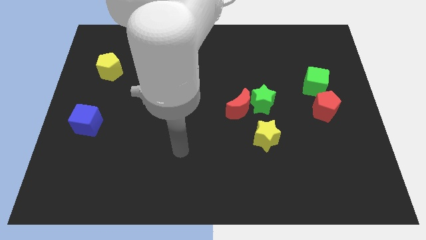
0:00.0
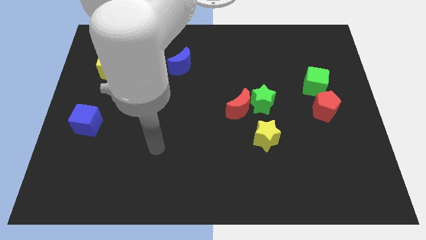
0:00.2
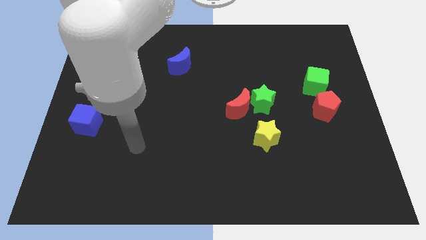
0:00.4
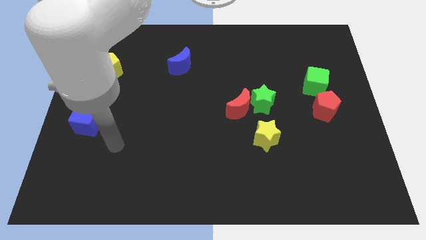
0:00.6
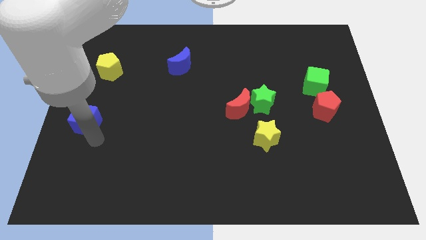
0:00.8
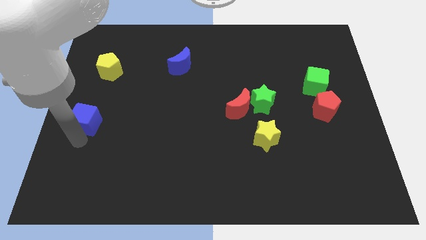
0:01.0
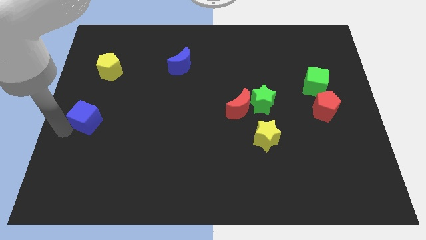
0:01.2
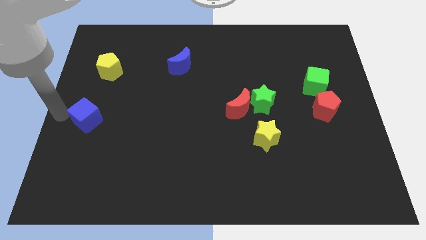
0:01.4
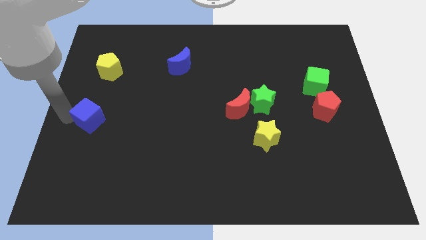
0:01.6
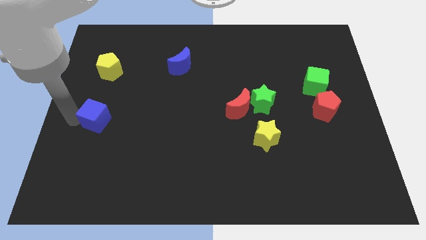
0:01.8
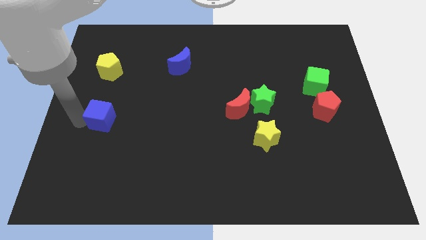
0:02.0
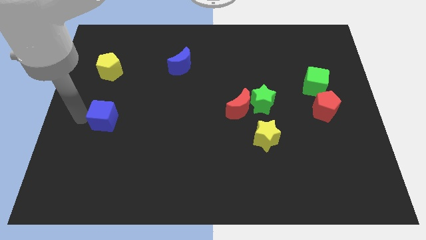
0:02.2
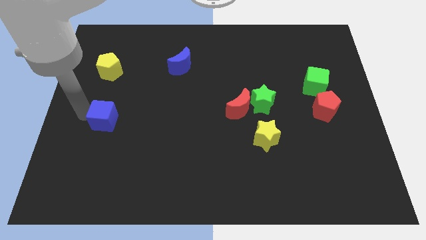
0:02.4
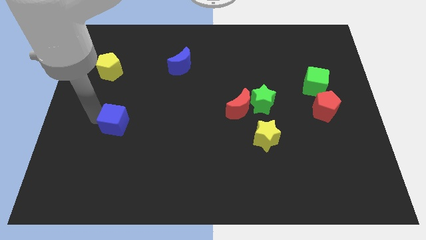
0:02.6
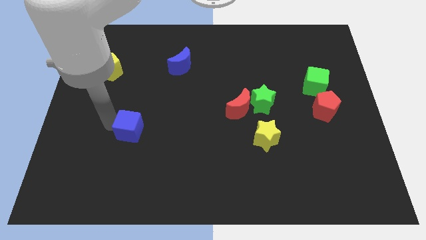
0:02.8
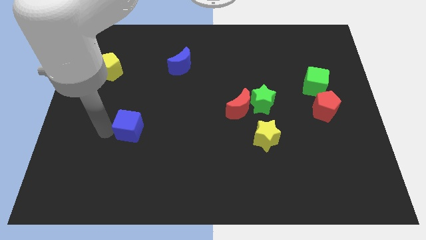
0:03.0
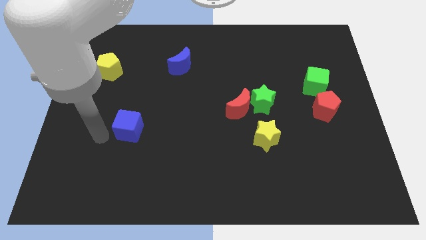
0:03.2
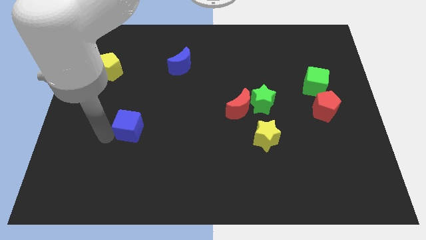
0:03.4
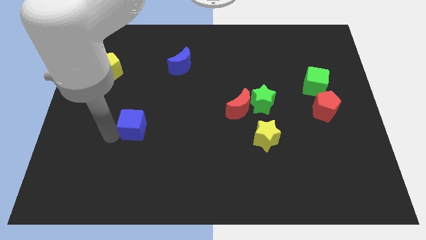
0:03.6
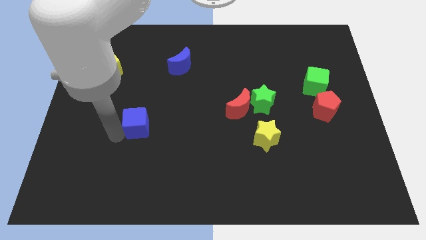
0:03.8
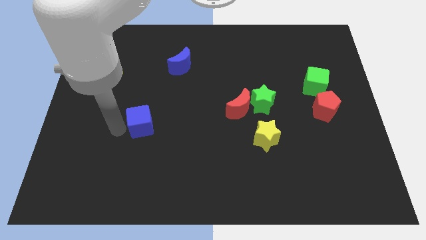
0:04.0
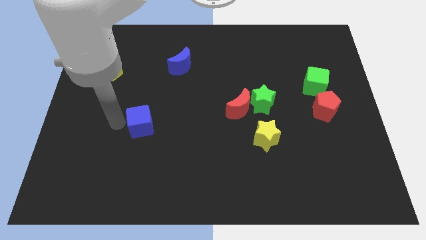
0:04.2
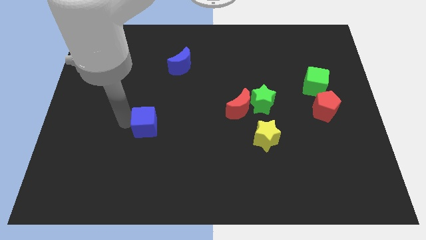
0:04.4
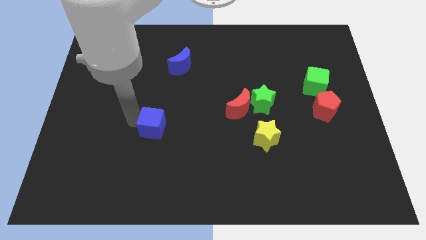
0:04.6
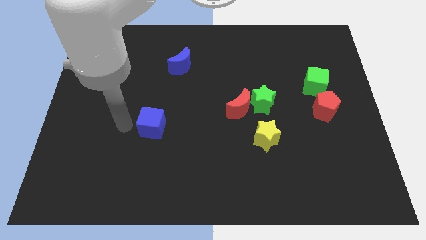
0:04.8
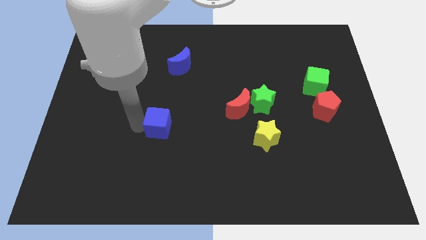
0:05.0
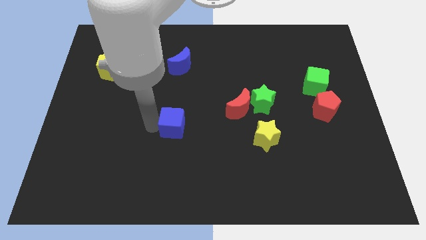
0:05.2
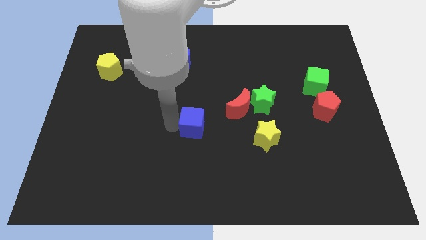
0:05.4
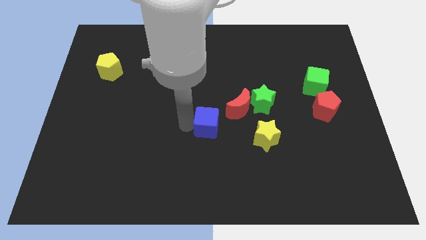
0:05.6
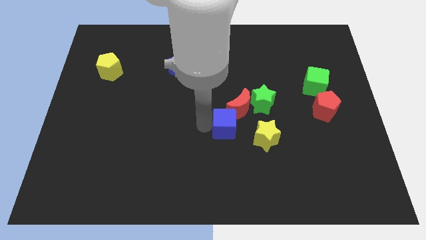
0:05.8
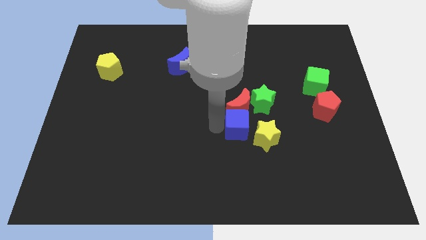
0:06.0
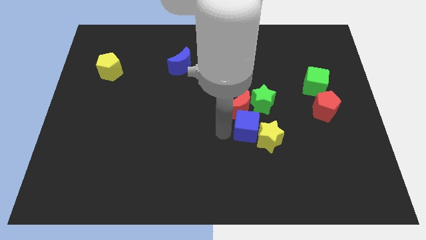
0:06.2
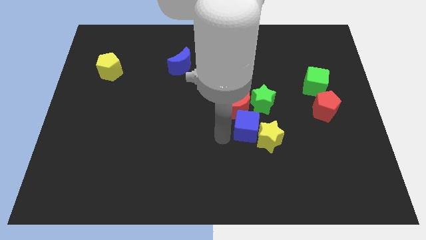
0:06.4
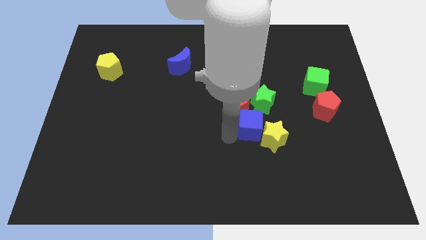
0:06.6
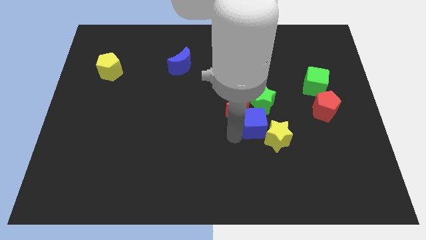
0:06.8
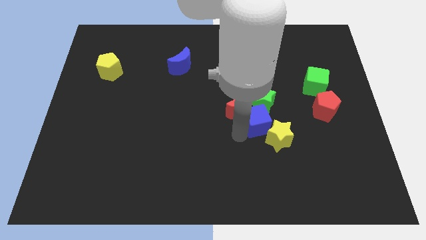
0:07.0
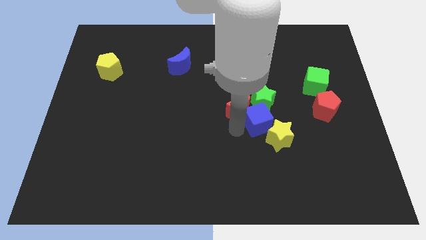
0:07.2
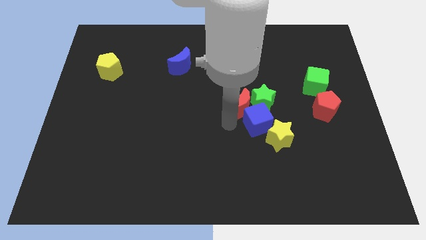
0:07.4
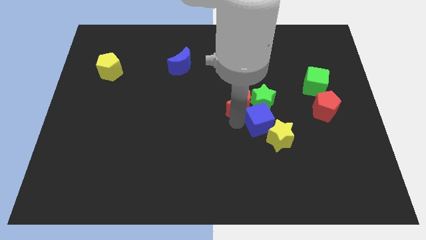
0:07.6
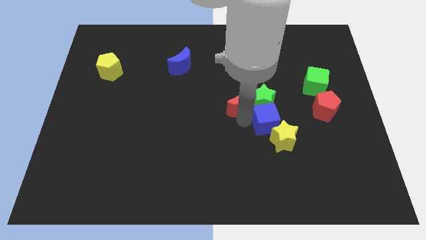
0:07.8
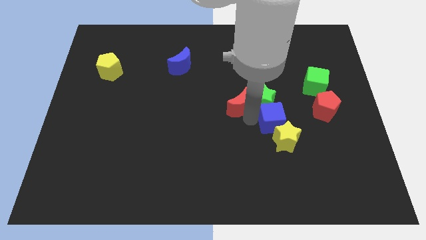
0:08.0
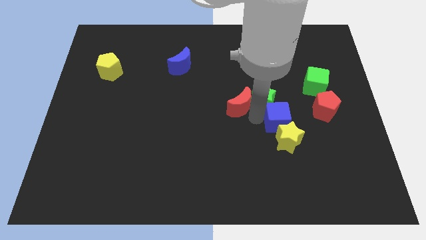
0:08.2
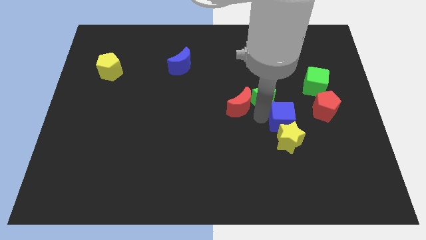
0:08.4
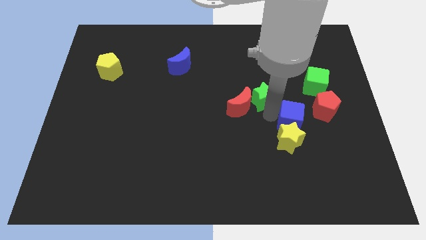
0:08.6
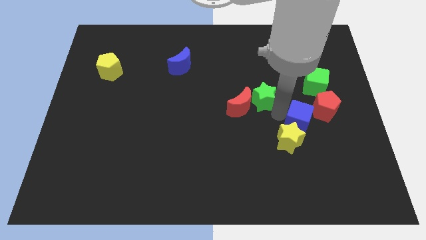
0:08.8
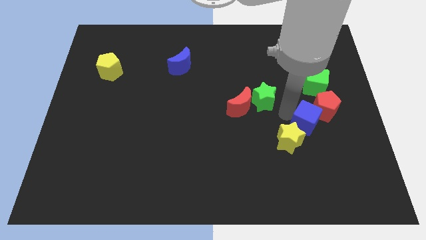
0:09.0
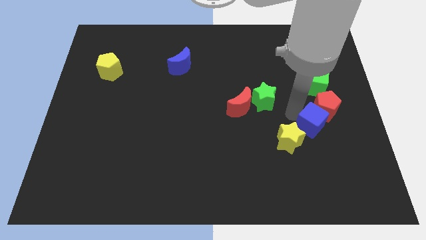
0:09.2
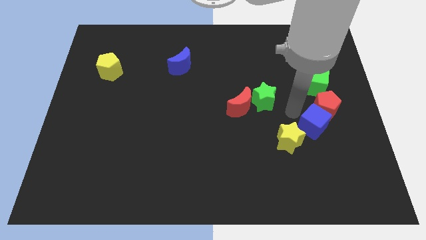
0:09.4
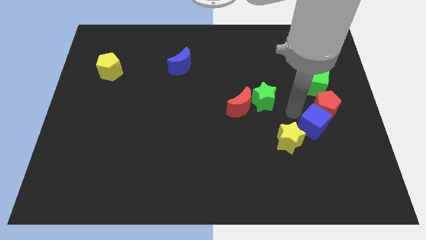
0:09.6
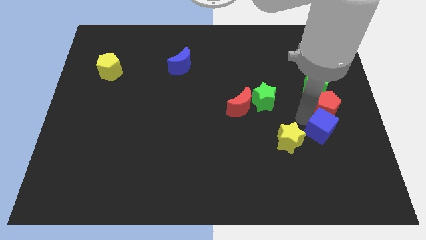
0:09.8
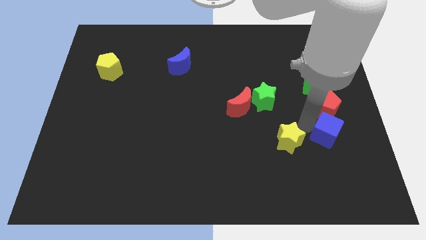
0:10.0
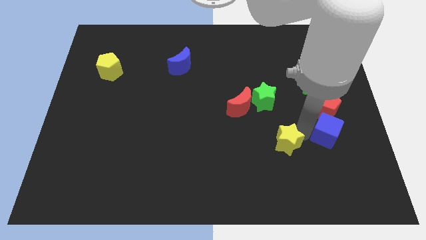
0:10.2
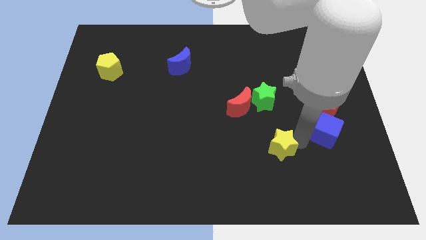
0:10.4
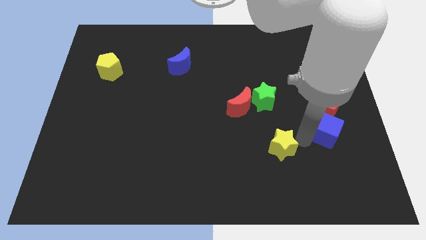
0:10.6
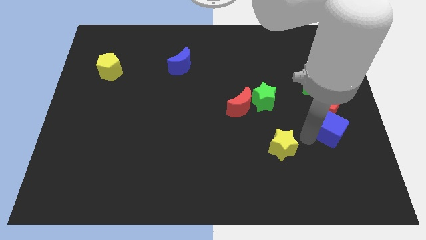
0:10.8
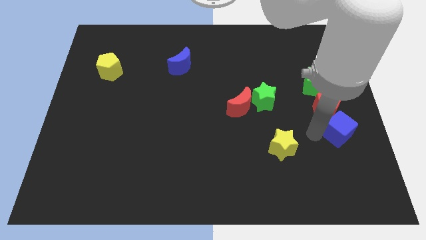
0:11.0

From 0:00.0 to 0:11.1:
move the blue cube to the right side of the board

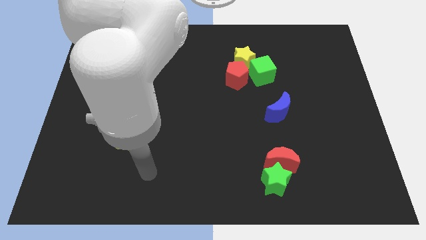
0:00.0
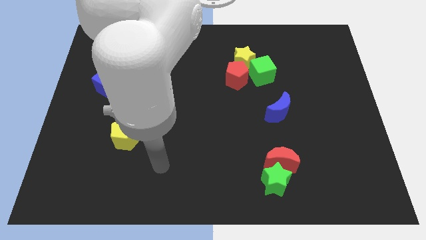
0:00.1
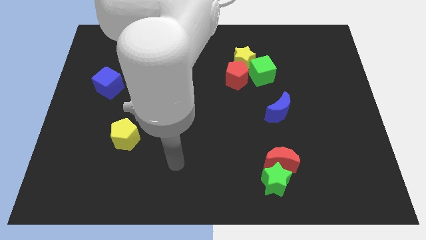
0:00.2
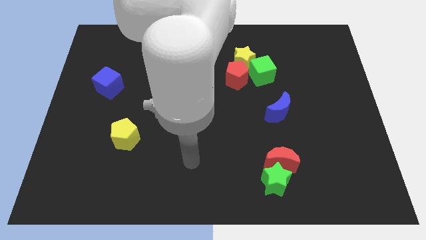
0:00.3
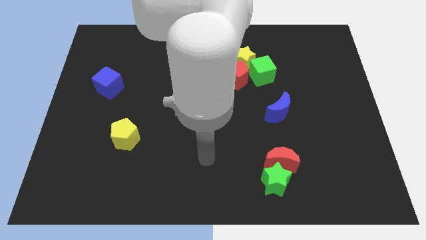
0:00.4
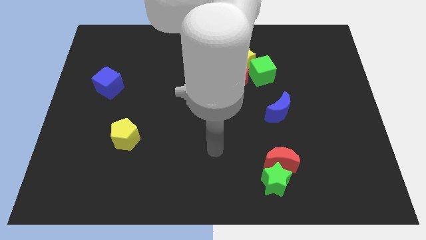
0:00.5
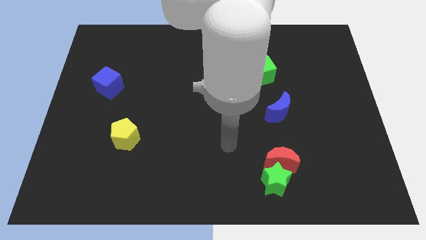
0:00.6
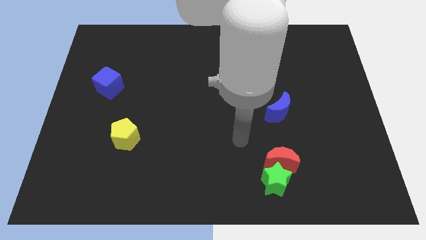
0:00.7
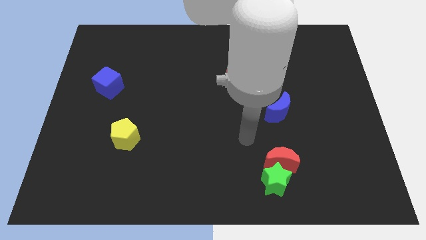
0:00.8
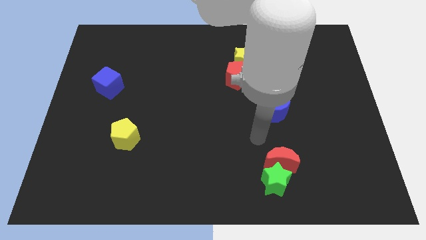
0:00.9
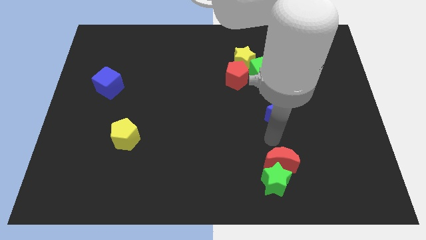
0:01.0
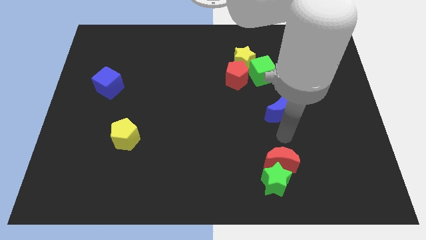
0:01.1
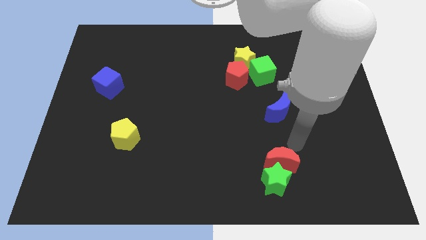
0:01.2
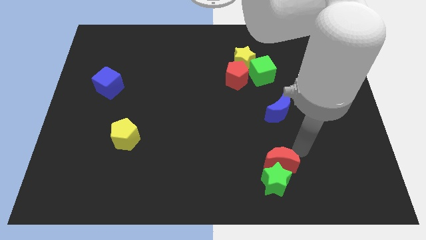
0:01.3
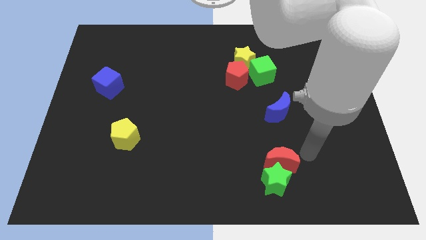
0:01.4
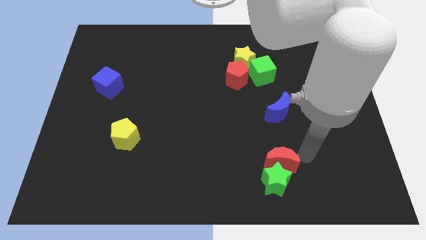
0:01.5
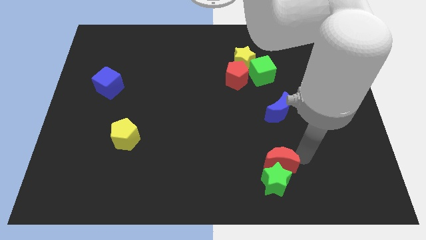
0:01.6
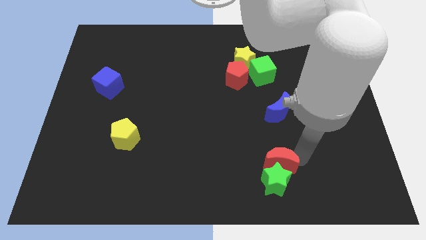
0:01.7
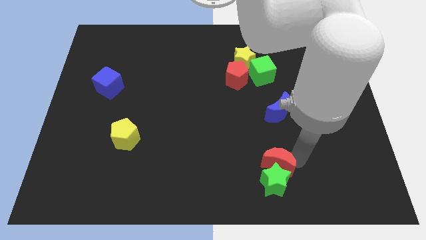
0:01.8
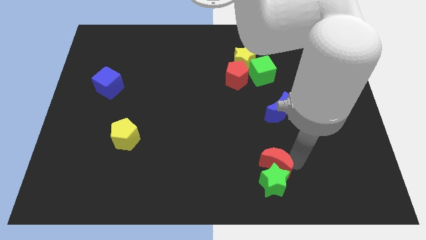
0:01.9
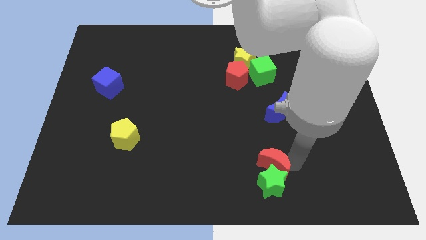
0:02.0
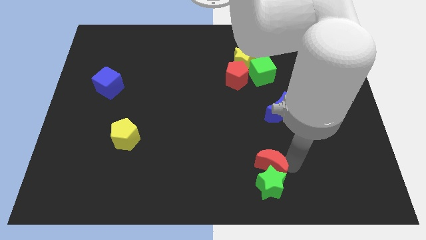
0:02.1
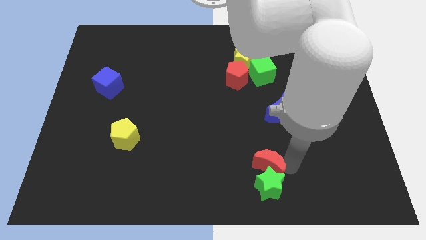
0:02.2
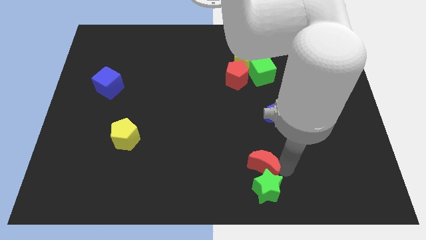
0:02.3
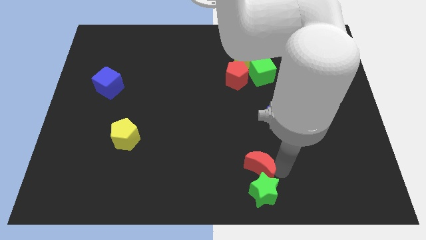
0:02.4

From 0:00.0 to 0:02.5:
move the red moon to the bottom side
